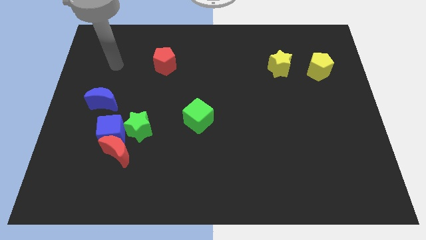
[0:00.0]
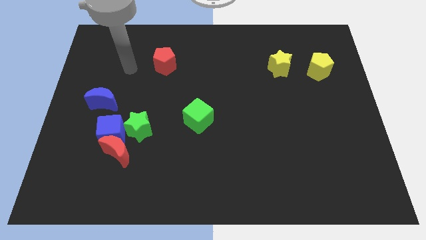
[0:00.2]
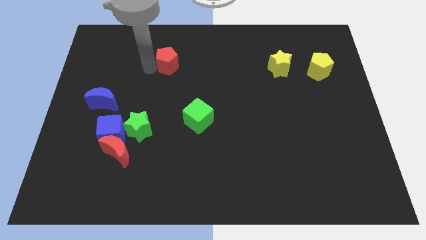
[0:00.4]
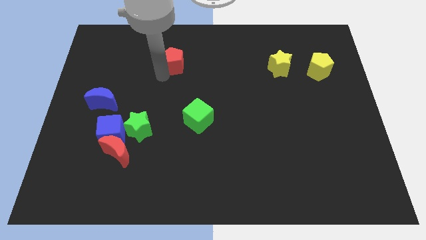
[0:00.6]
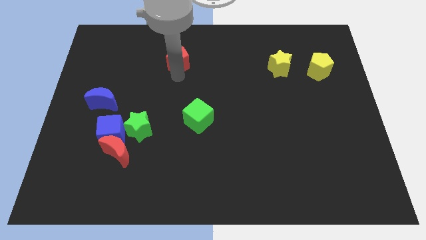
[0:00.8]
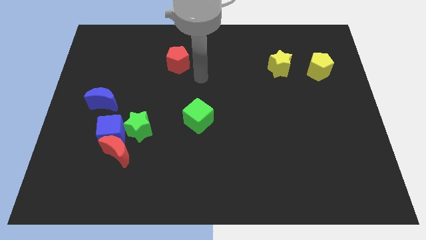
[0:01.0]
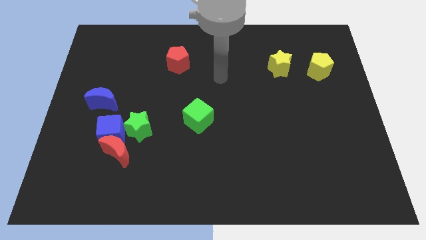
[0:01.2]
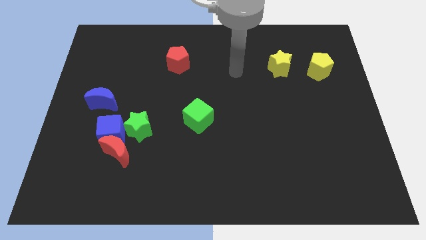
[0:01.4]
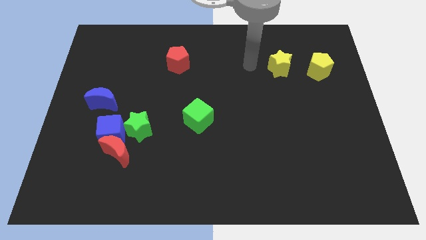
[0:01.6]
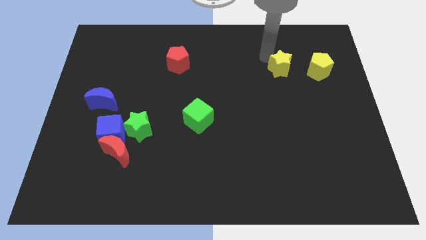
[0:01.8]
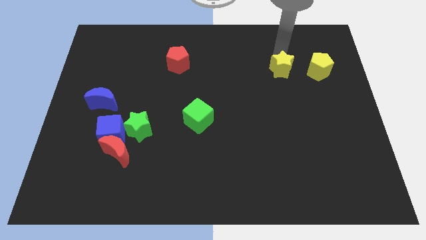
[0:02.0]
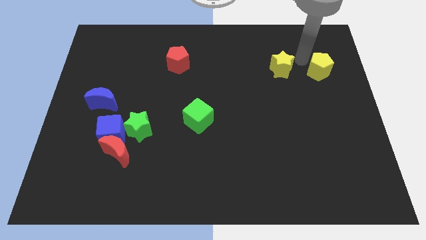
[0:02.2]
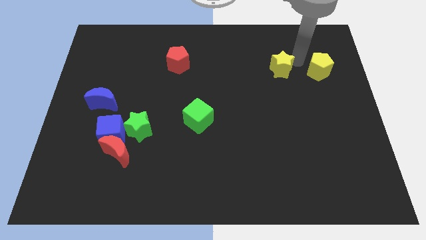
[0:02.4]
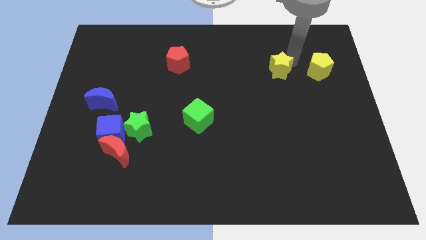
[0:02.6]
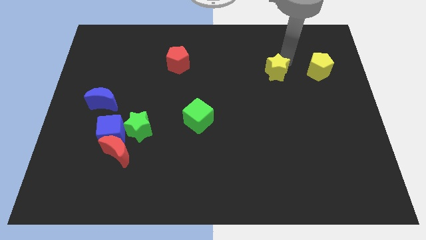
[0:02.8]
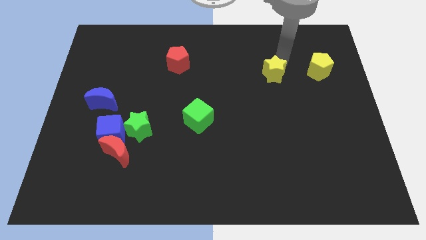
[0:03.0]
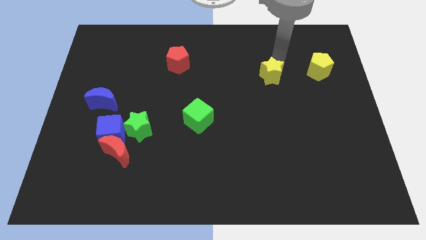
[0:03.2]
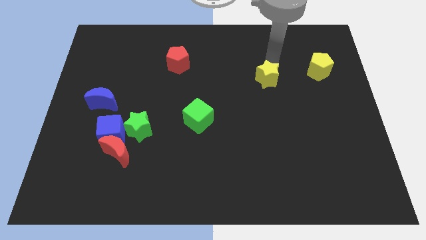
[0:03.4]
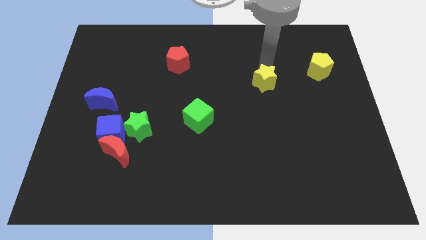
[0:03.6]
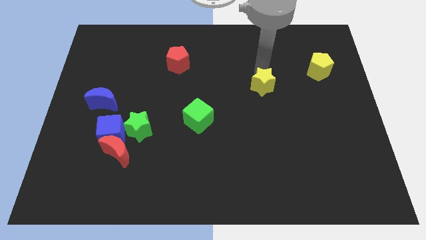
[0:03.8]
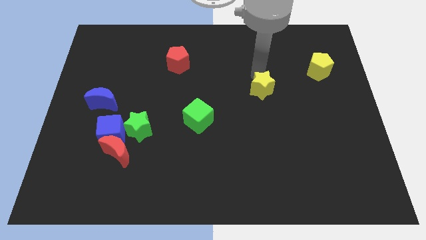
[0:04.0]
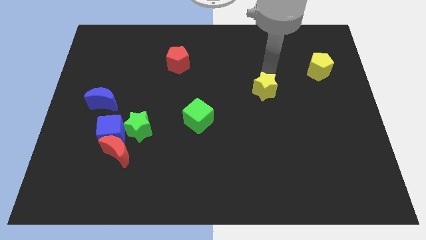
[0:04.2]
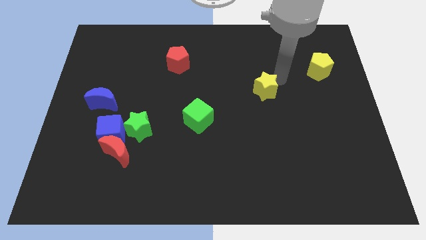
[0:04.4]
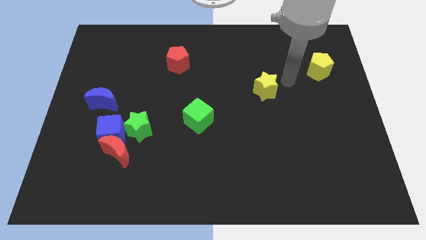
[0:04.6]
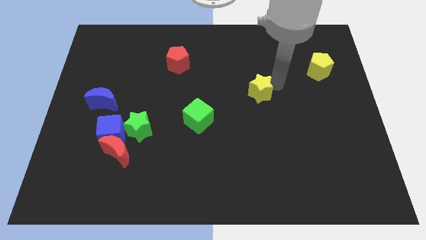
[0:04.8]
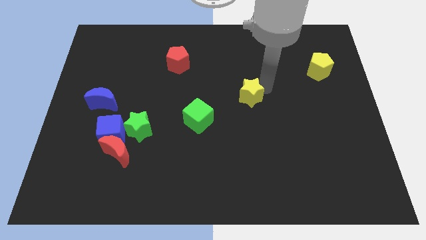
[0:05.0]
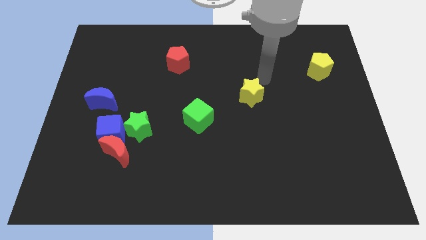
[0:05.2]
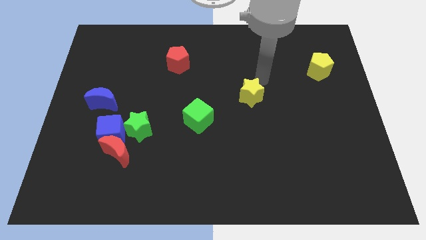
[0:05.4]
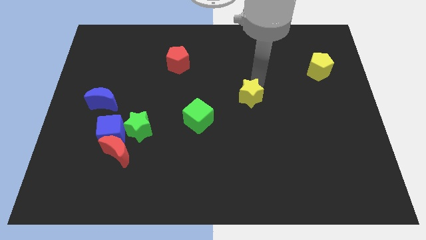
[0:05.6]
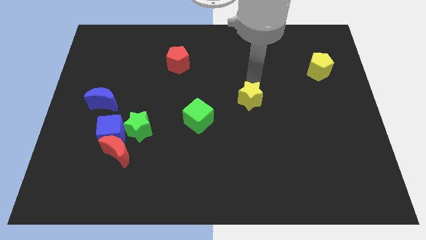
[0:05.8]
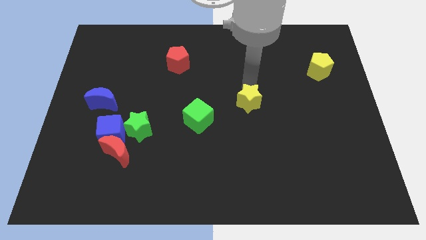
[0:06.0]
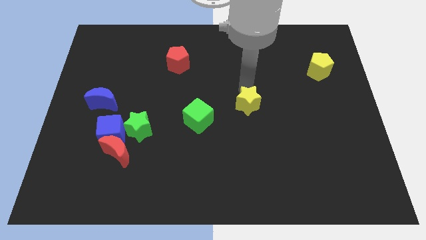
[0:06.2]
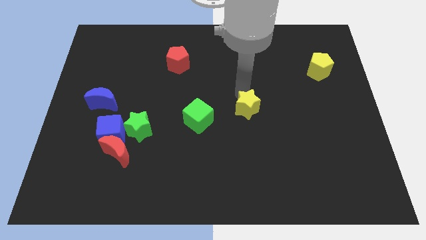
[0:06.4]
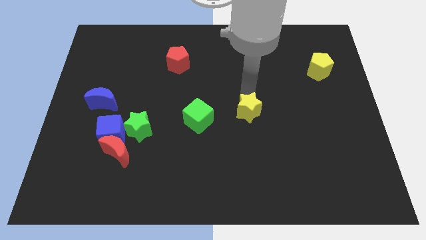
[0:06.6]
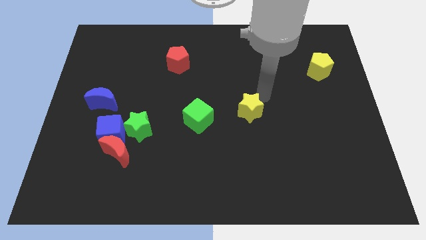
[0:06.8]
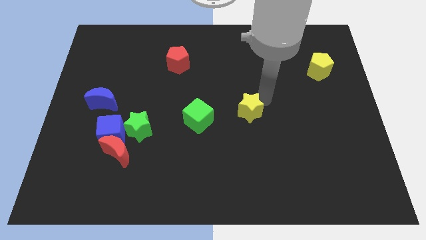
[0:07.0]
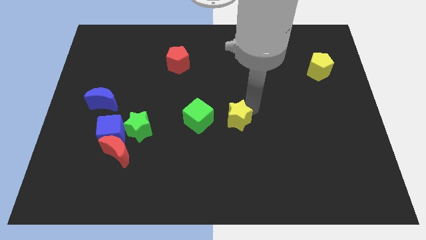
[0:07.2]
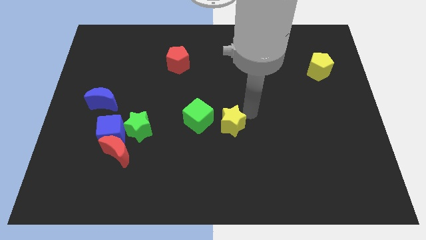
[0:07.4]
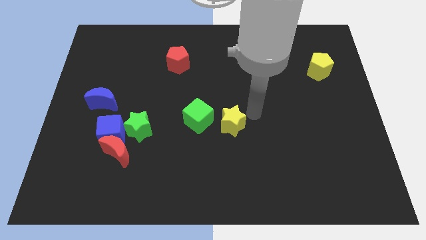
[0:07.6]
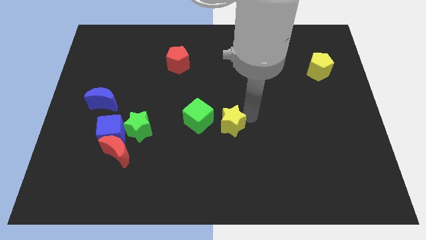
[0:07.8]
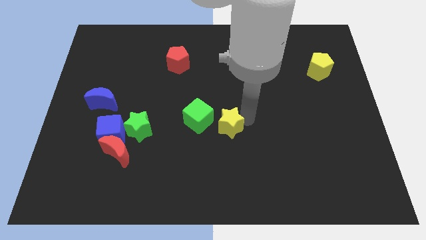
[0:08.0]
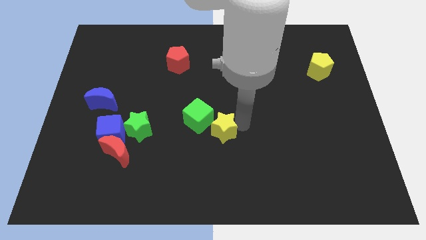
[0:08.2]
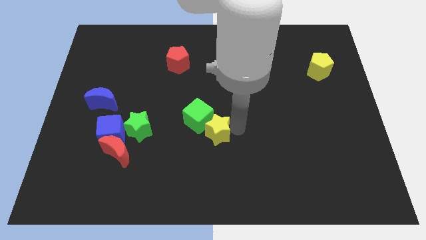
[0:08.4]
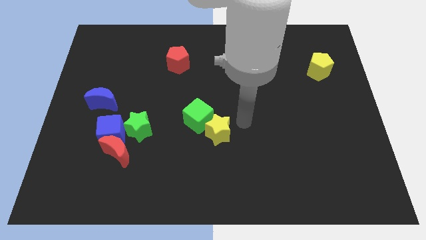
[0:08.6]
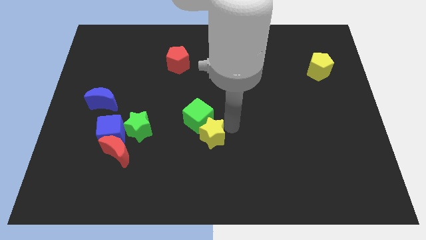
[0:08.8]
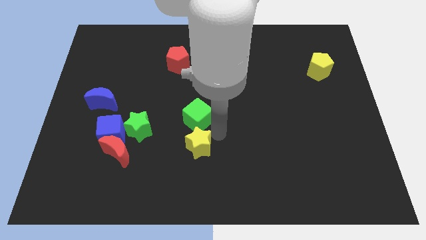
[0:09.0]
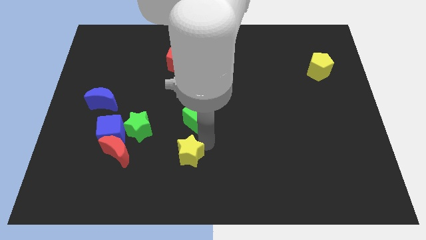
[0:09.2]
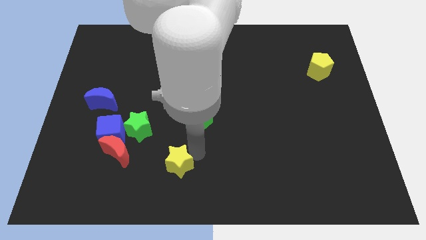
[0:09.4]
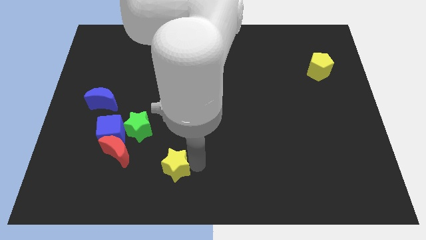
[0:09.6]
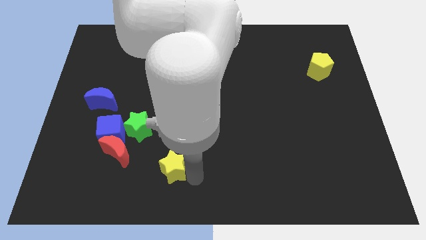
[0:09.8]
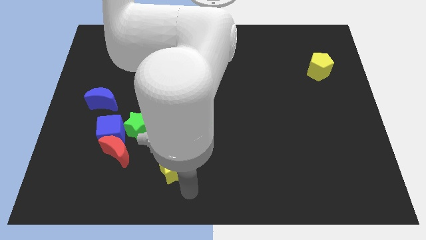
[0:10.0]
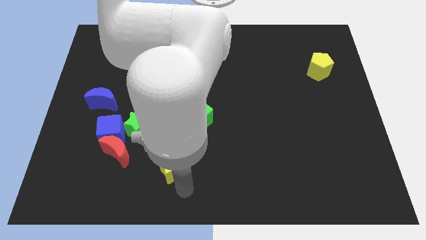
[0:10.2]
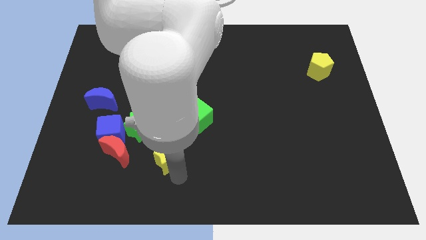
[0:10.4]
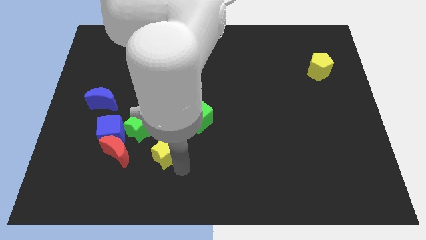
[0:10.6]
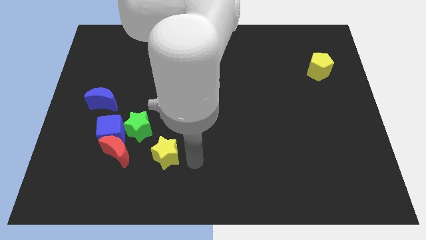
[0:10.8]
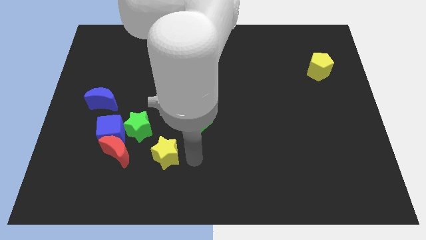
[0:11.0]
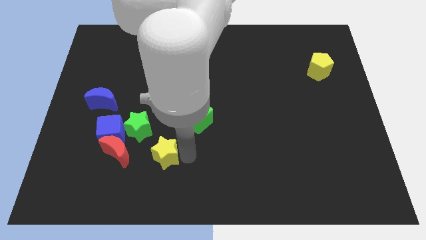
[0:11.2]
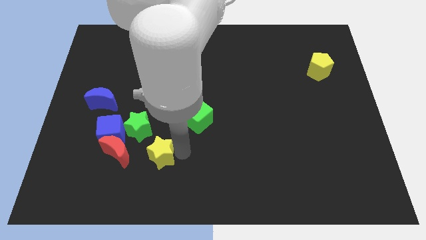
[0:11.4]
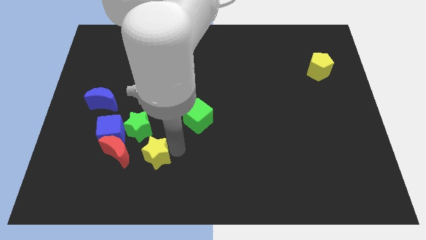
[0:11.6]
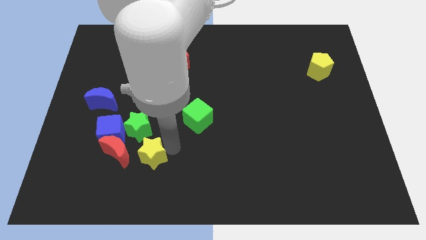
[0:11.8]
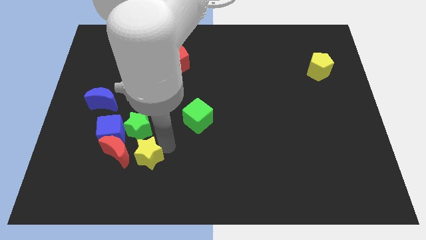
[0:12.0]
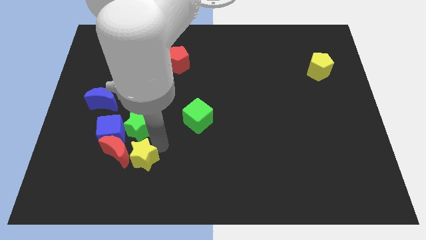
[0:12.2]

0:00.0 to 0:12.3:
push the yellow star next to the red moon
